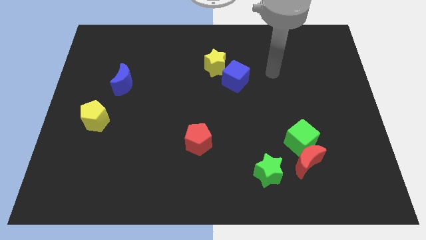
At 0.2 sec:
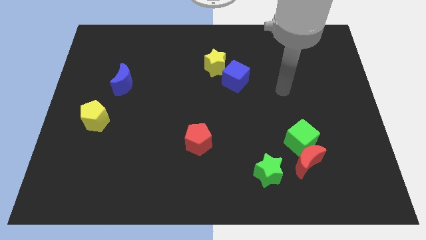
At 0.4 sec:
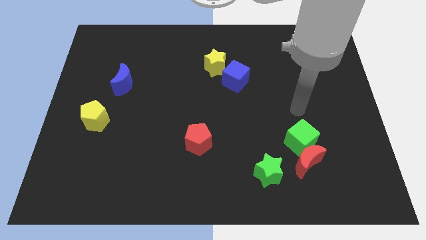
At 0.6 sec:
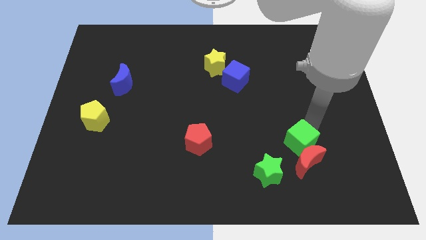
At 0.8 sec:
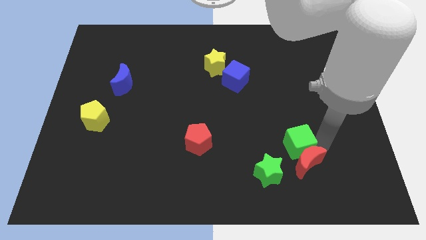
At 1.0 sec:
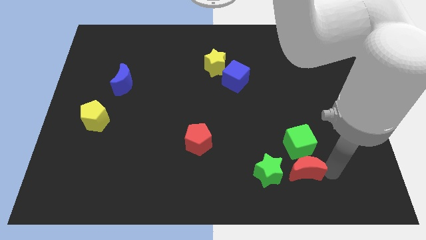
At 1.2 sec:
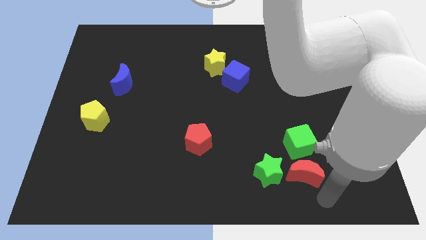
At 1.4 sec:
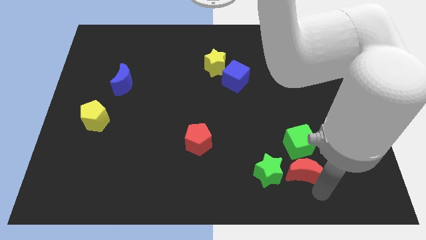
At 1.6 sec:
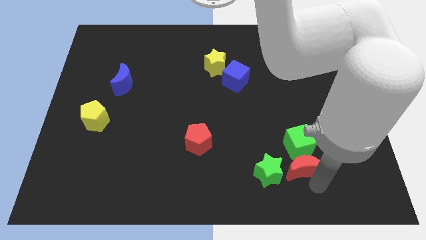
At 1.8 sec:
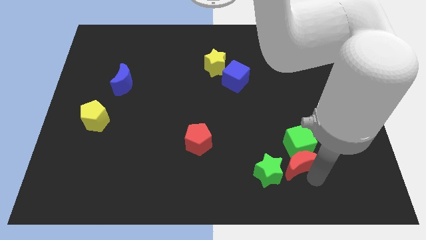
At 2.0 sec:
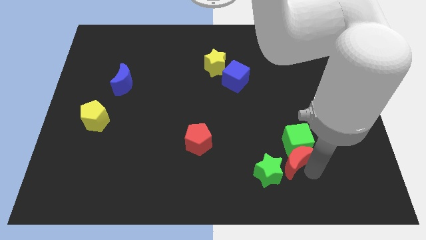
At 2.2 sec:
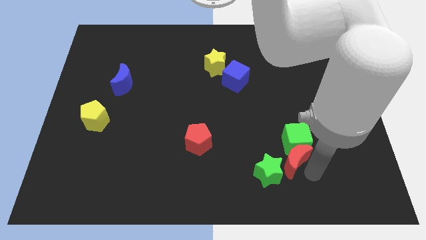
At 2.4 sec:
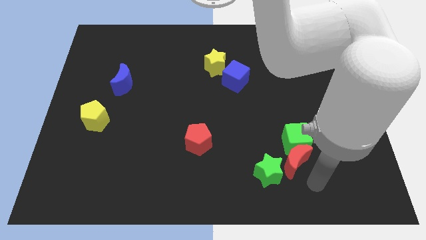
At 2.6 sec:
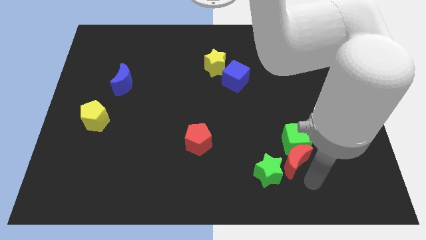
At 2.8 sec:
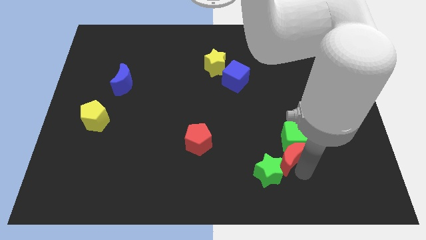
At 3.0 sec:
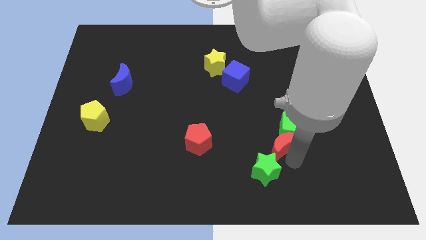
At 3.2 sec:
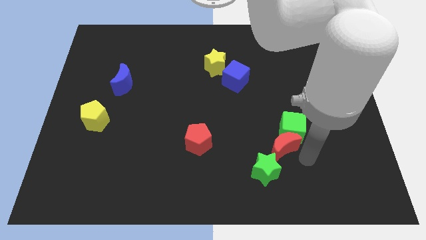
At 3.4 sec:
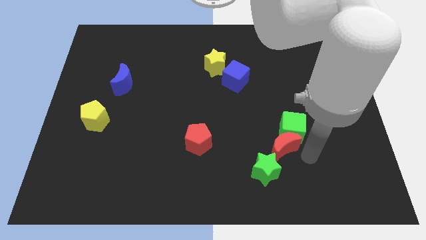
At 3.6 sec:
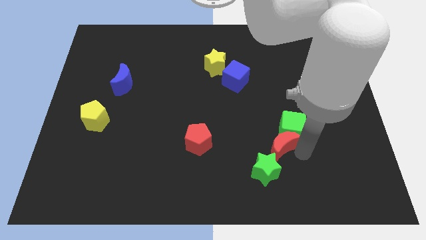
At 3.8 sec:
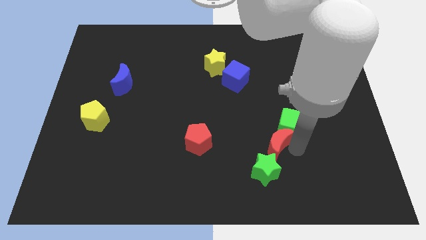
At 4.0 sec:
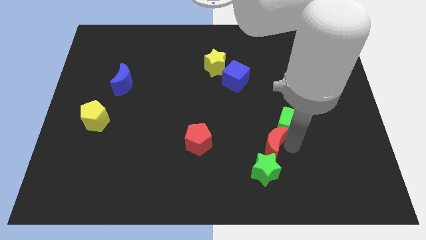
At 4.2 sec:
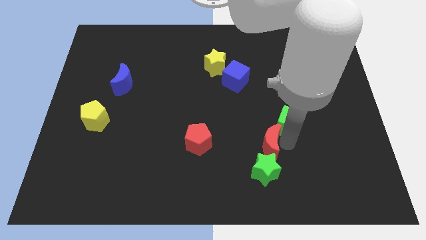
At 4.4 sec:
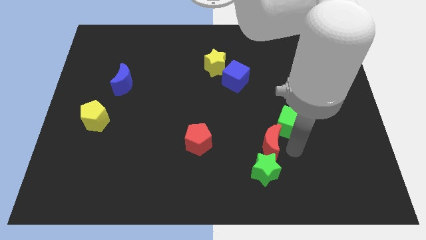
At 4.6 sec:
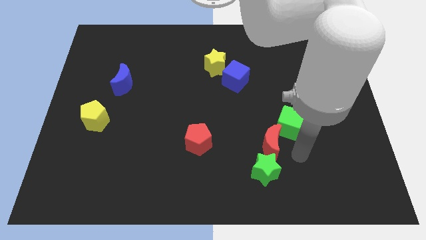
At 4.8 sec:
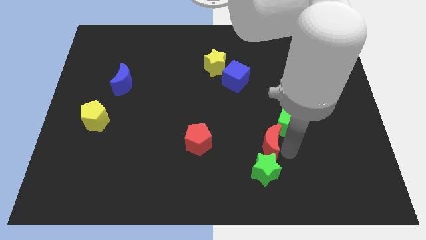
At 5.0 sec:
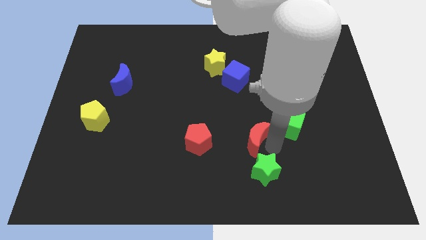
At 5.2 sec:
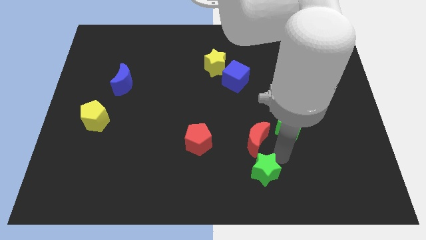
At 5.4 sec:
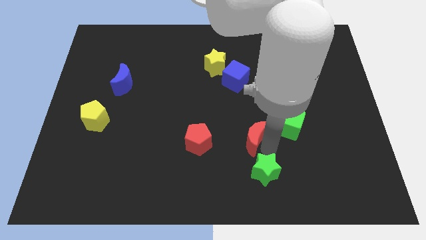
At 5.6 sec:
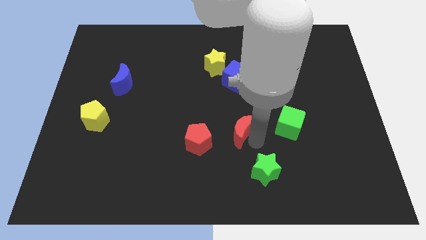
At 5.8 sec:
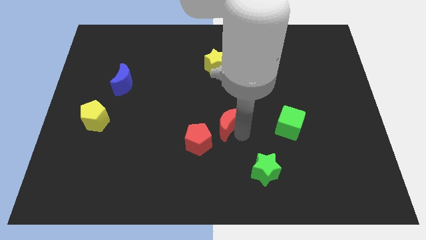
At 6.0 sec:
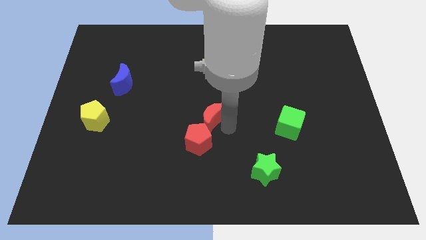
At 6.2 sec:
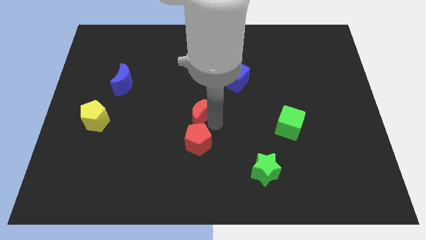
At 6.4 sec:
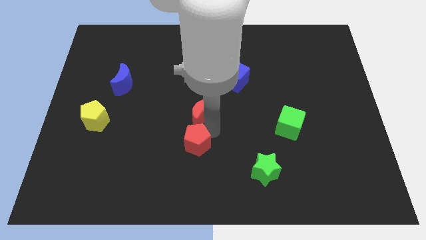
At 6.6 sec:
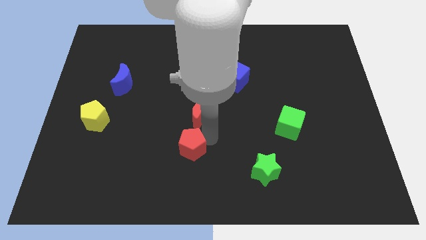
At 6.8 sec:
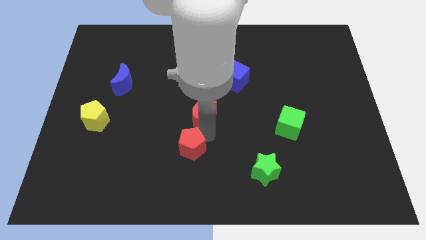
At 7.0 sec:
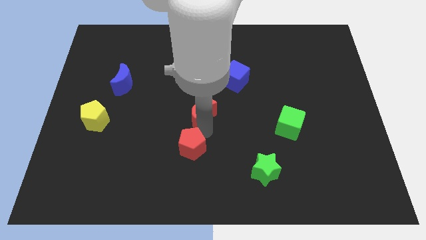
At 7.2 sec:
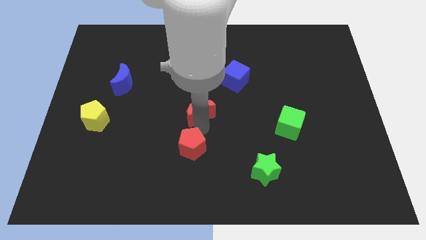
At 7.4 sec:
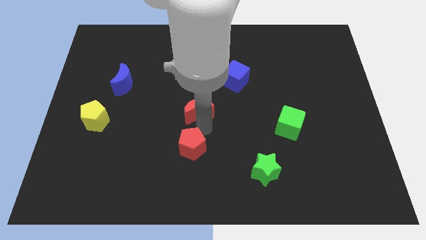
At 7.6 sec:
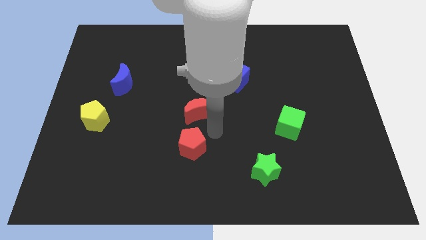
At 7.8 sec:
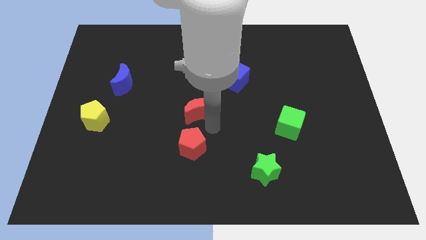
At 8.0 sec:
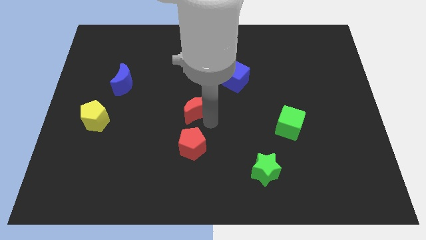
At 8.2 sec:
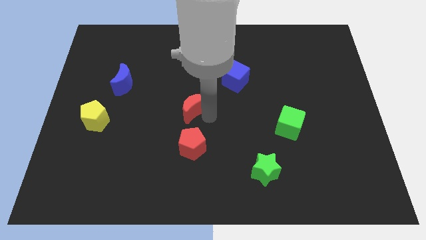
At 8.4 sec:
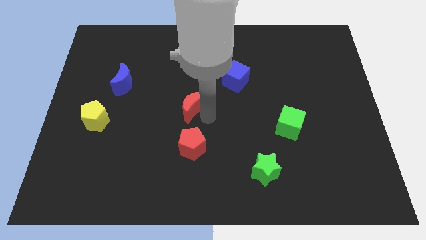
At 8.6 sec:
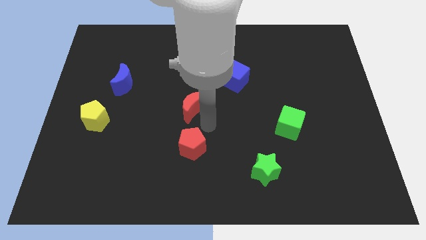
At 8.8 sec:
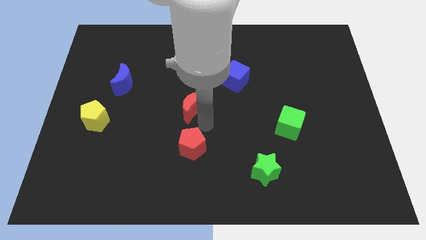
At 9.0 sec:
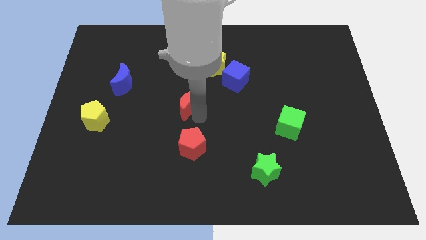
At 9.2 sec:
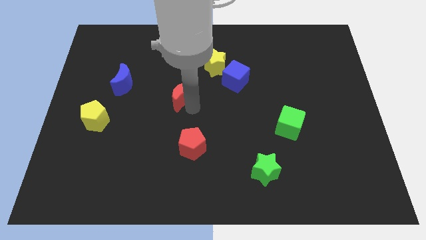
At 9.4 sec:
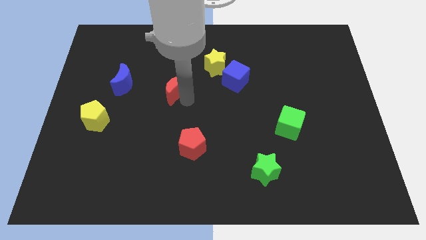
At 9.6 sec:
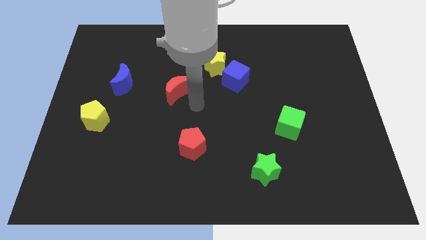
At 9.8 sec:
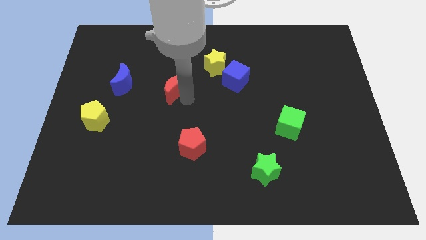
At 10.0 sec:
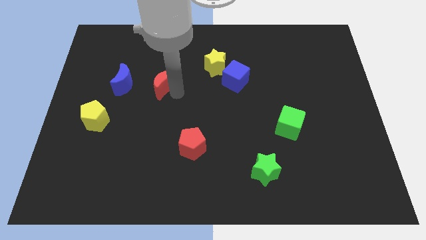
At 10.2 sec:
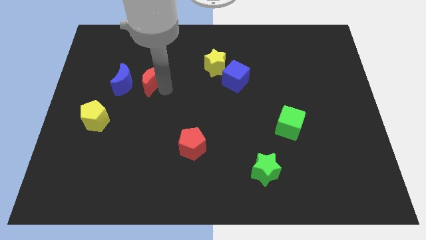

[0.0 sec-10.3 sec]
slide the red moon diagonally up and to the right of the blue moon

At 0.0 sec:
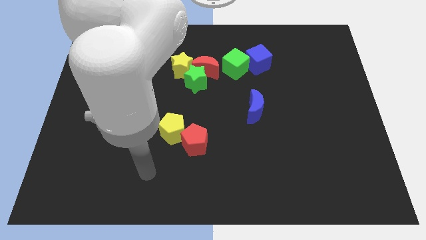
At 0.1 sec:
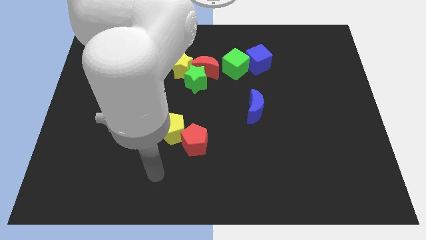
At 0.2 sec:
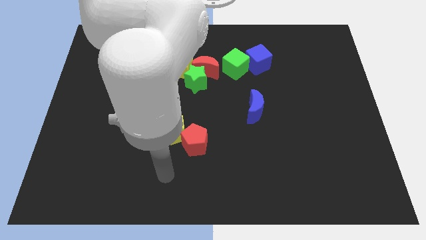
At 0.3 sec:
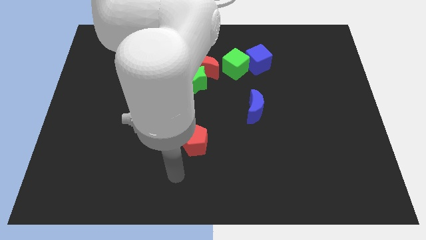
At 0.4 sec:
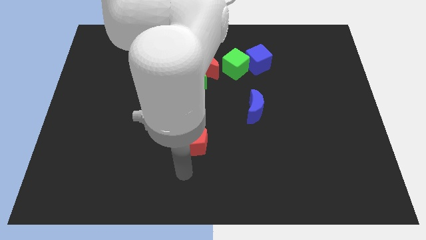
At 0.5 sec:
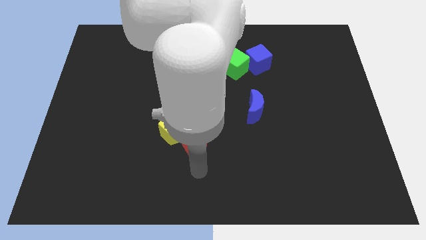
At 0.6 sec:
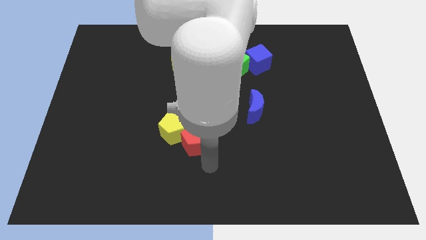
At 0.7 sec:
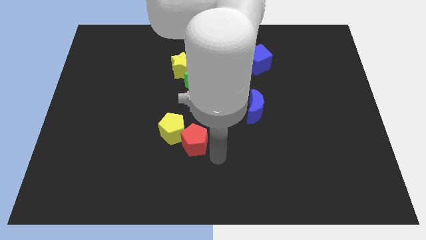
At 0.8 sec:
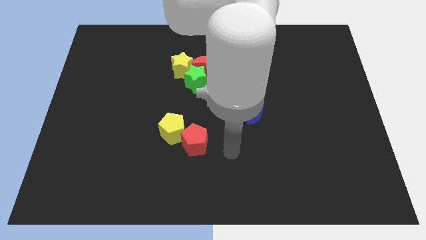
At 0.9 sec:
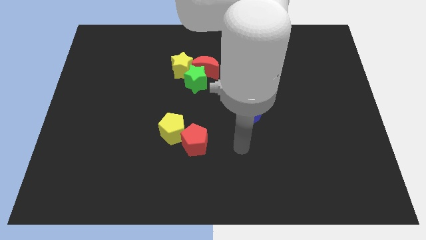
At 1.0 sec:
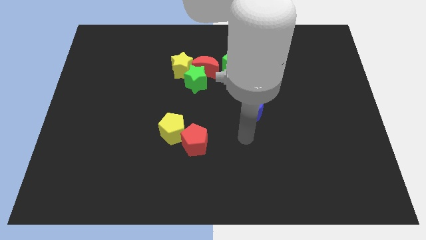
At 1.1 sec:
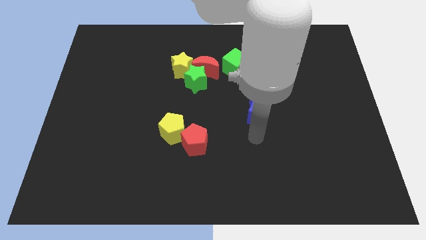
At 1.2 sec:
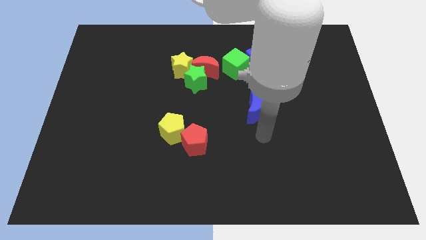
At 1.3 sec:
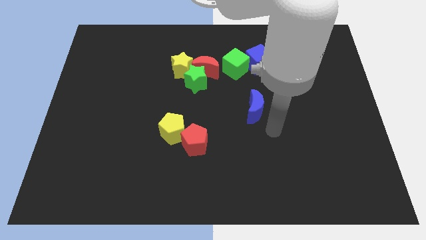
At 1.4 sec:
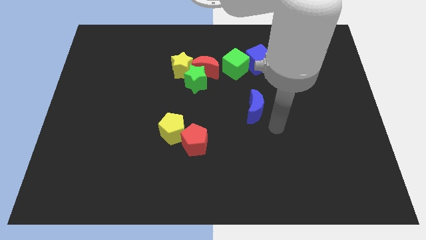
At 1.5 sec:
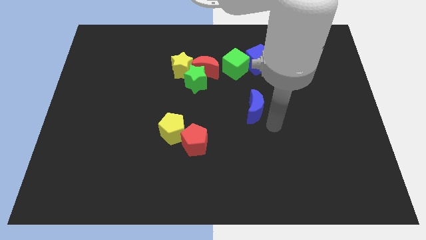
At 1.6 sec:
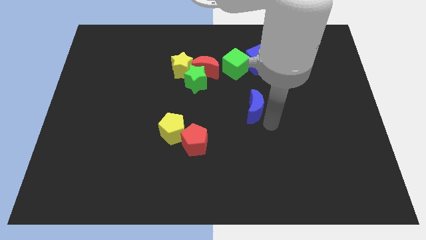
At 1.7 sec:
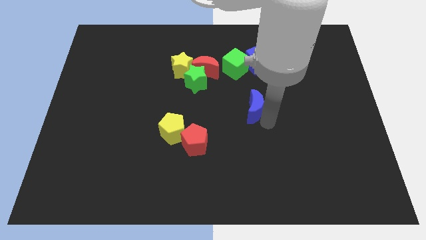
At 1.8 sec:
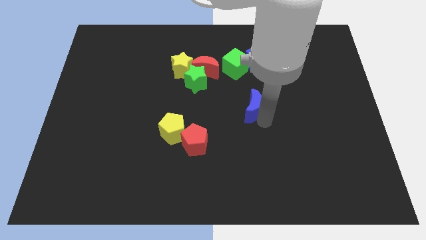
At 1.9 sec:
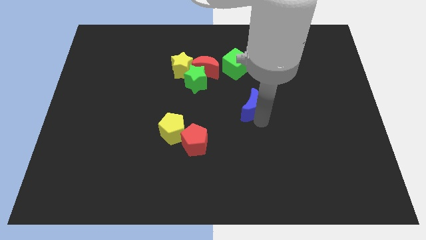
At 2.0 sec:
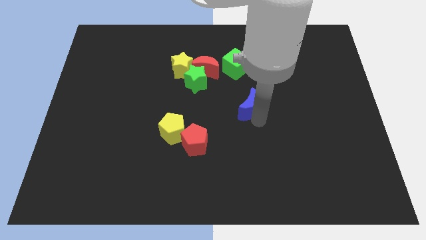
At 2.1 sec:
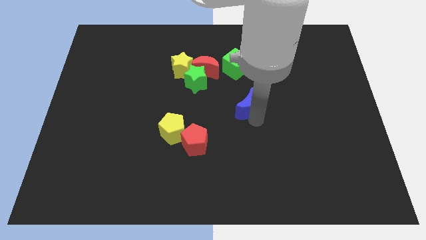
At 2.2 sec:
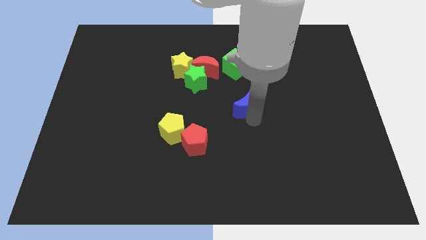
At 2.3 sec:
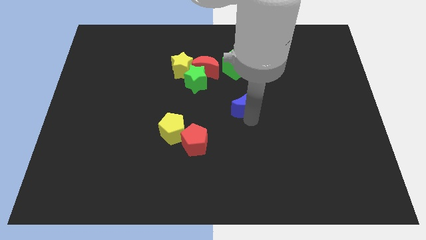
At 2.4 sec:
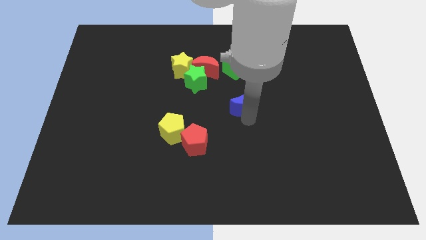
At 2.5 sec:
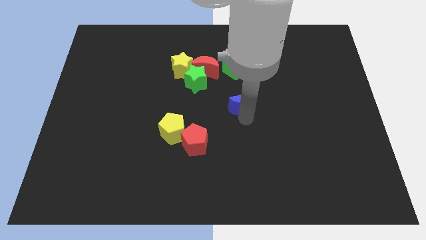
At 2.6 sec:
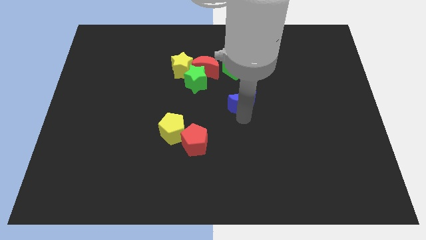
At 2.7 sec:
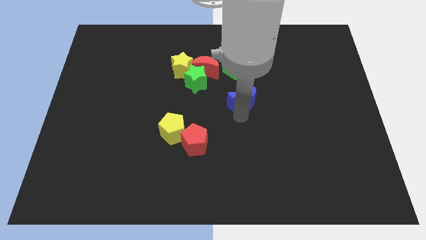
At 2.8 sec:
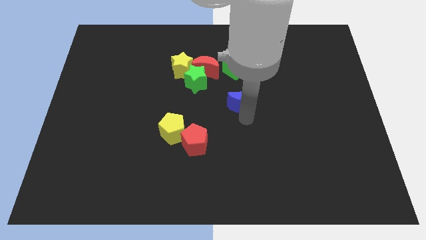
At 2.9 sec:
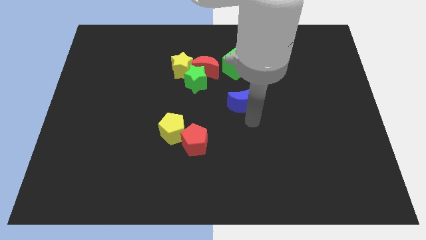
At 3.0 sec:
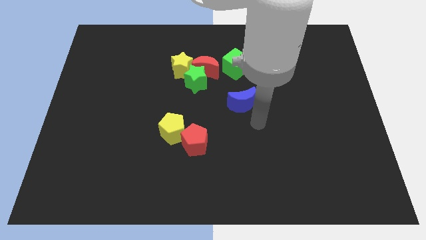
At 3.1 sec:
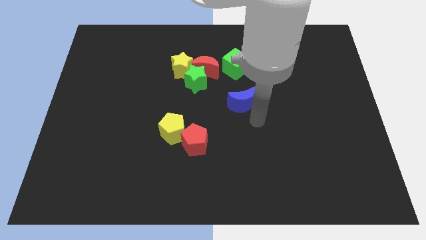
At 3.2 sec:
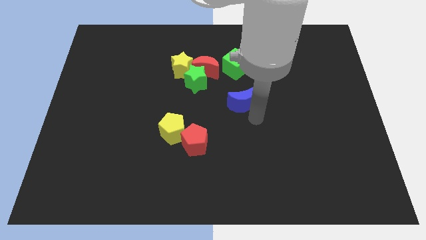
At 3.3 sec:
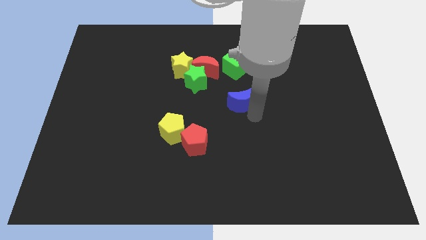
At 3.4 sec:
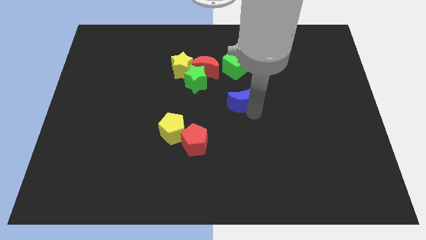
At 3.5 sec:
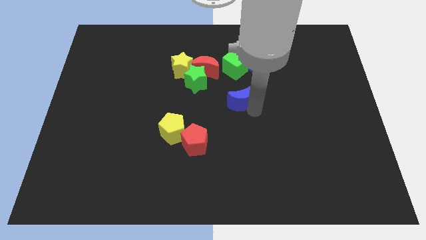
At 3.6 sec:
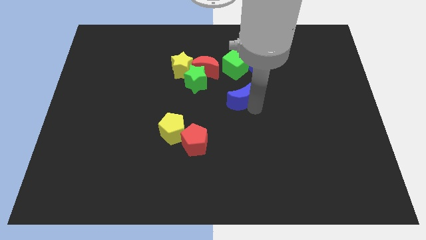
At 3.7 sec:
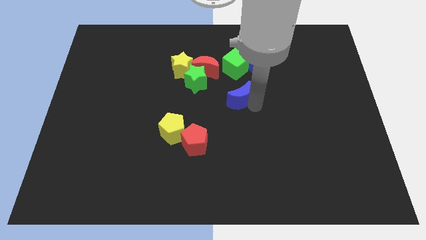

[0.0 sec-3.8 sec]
put the blue moon to the bottom right side of the red moon
